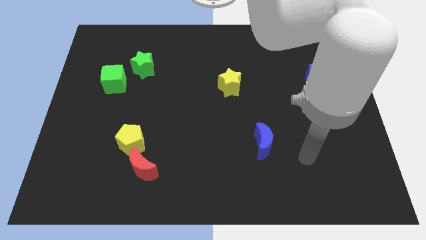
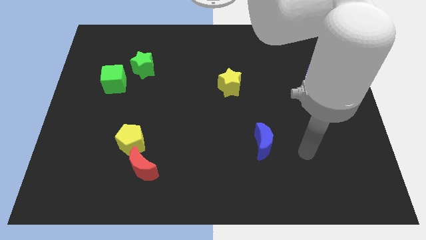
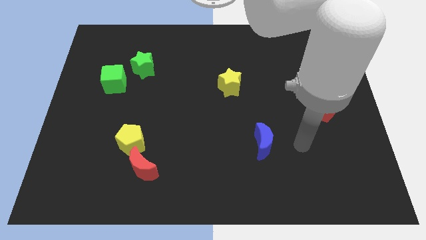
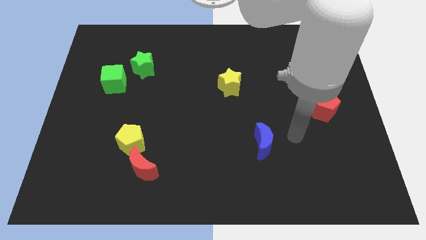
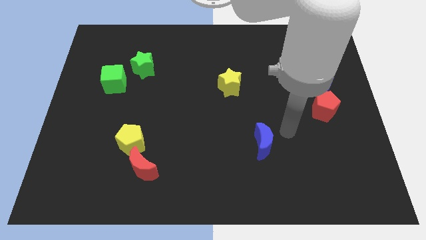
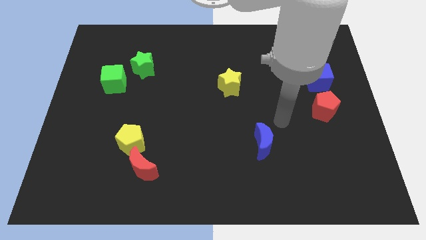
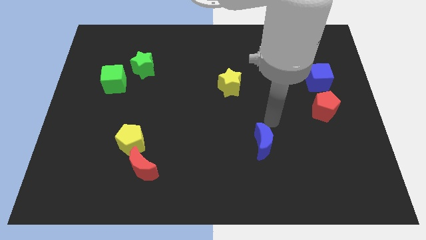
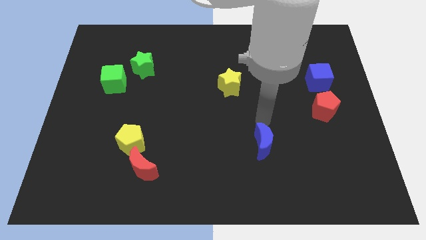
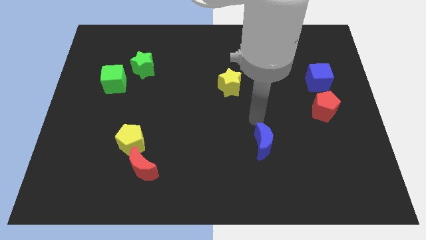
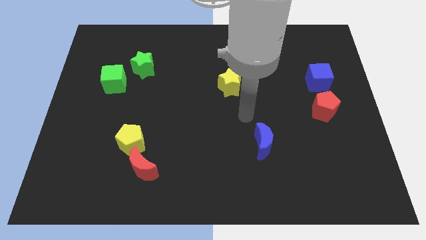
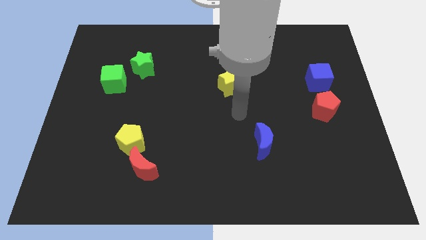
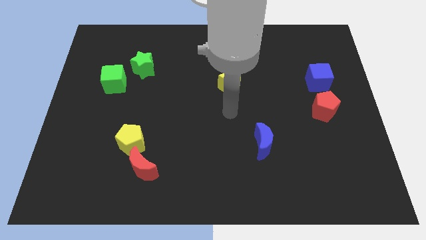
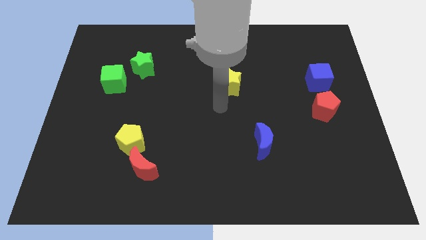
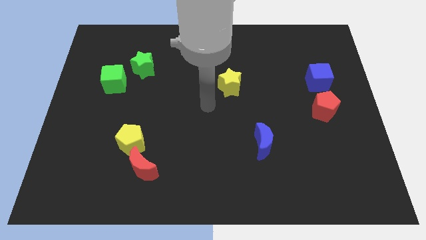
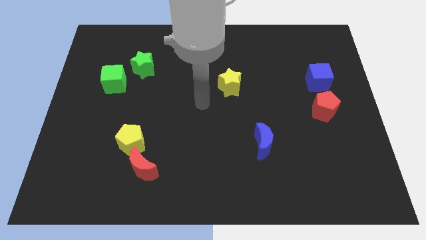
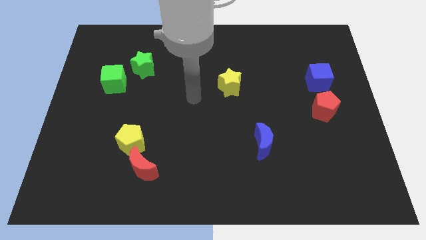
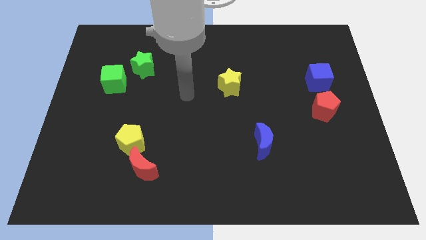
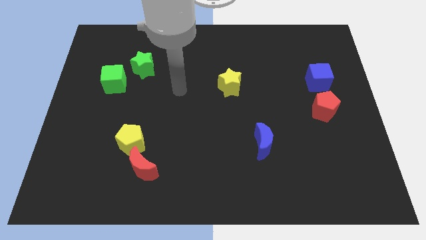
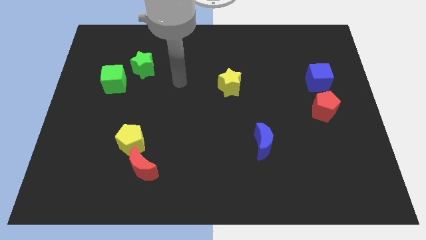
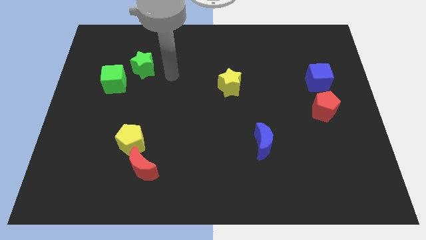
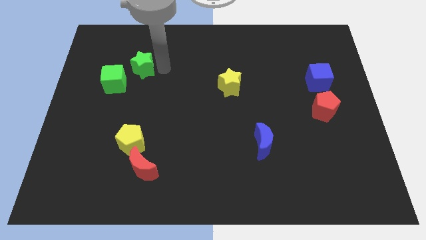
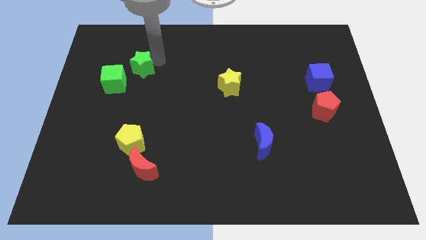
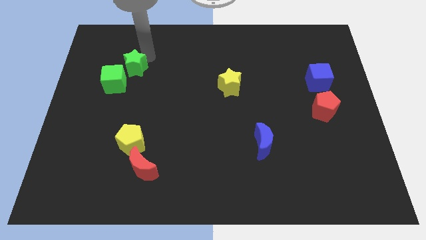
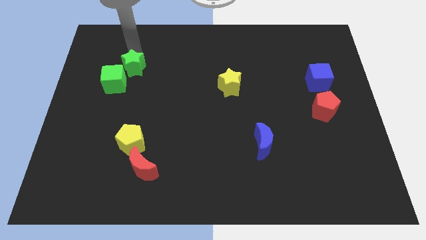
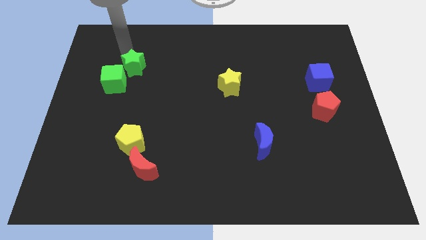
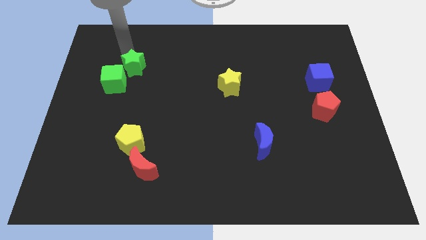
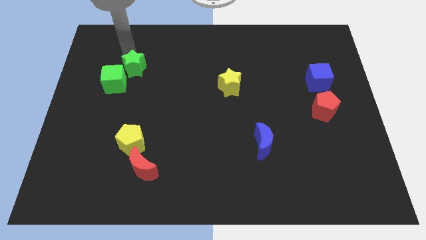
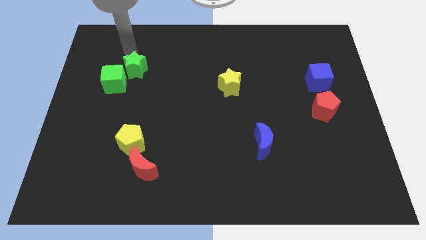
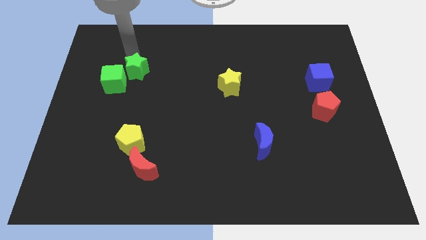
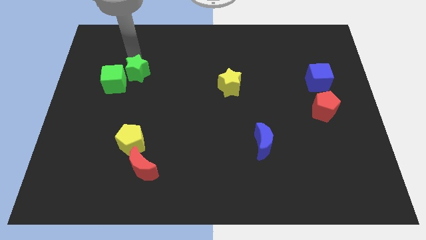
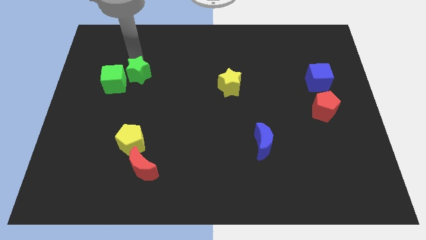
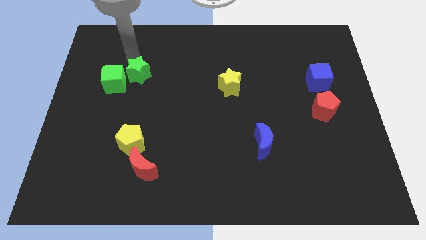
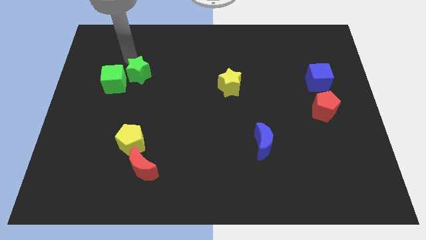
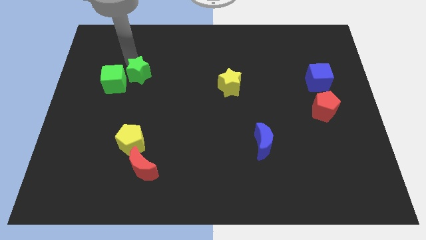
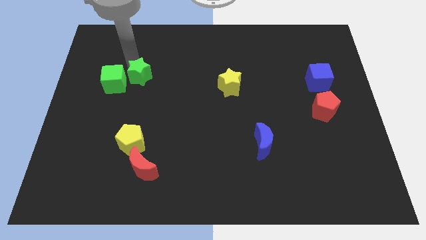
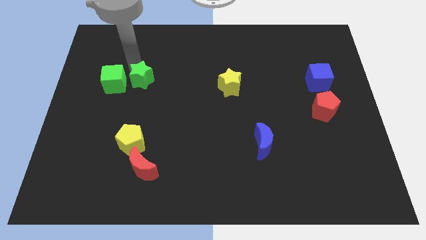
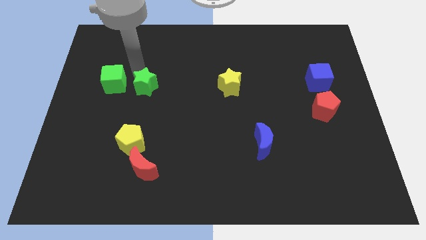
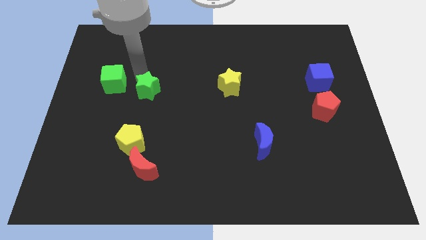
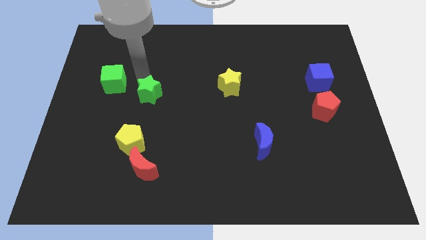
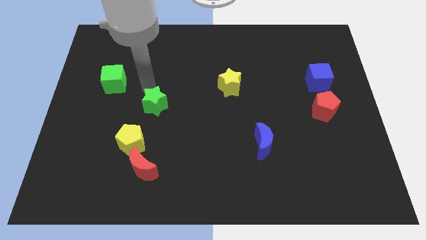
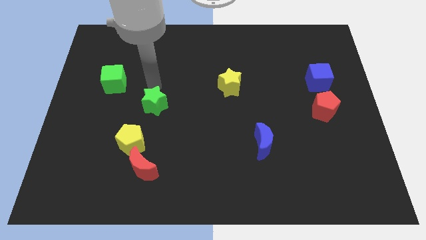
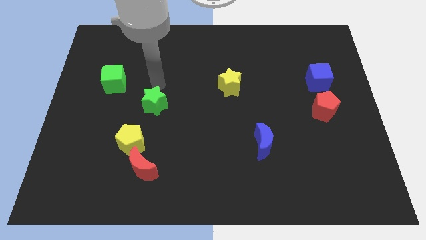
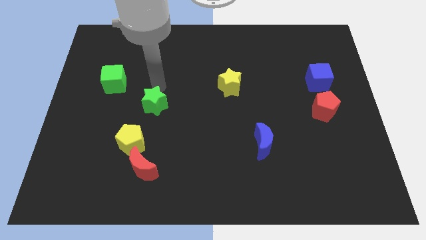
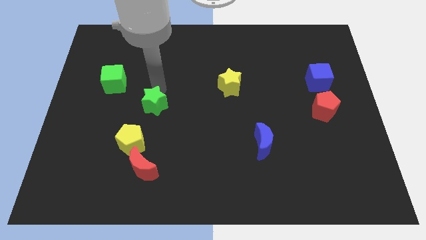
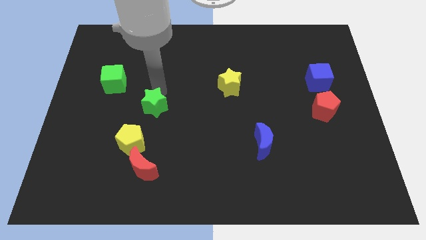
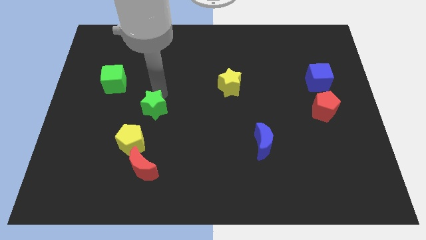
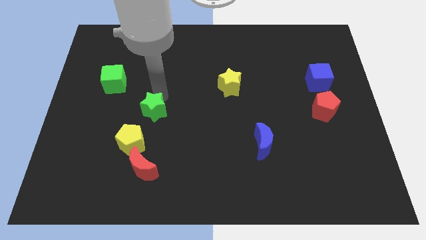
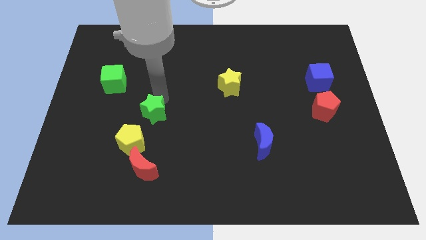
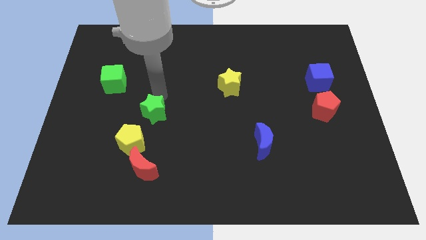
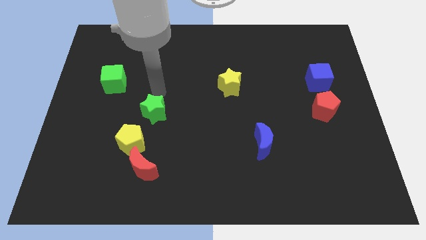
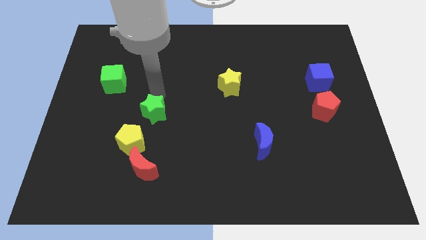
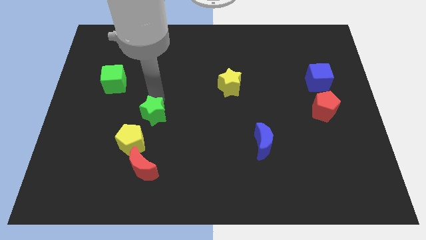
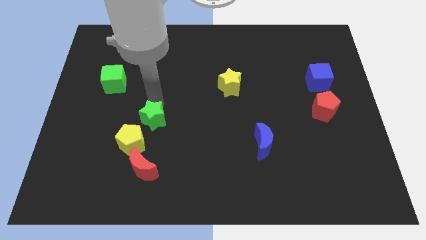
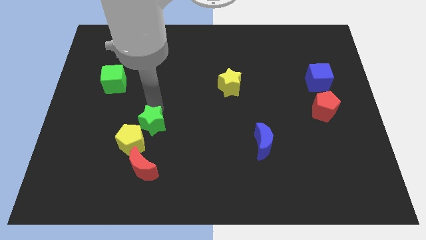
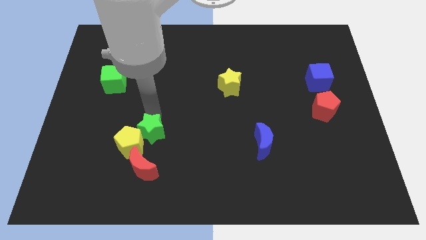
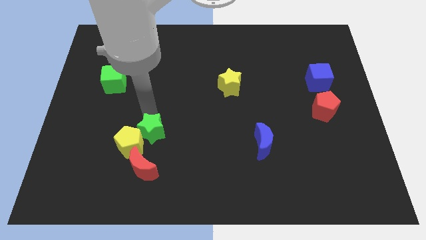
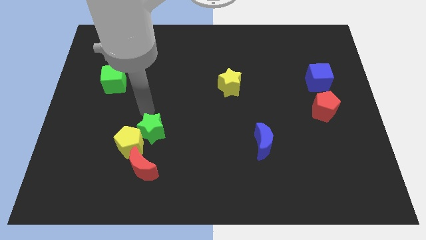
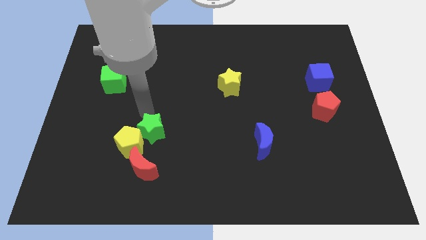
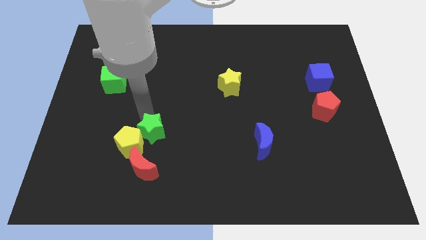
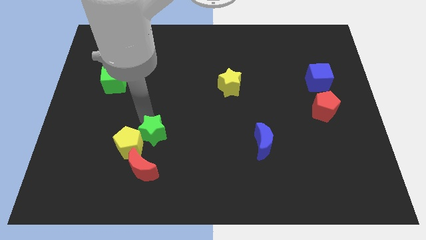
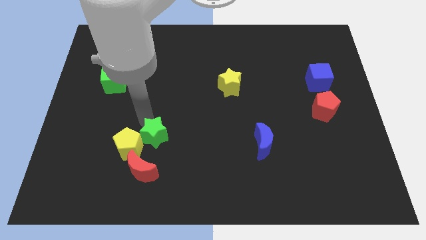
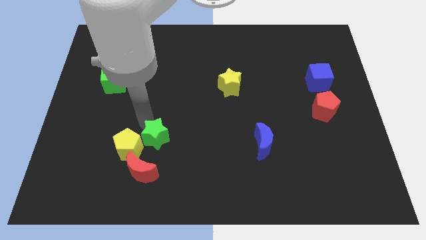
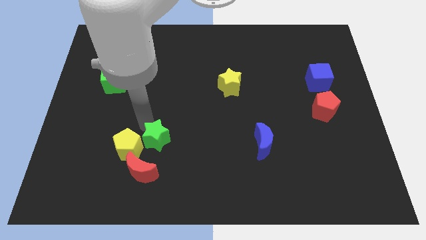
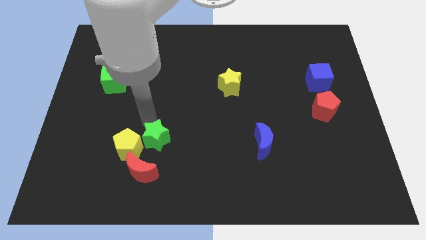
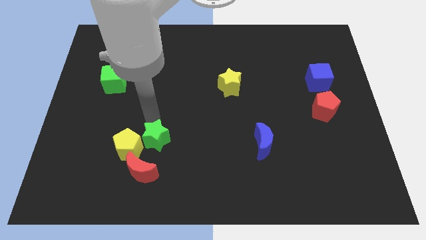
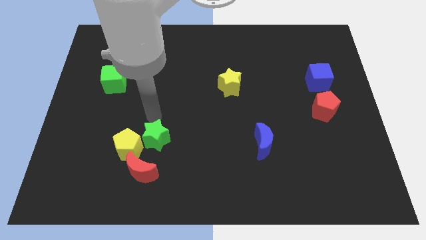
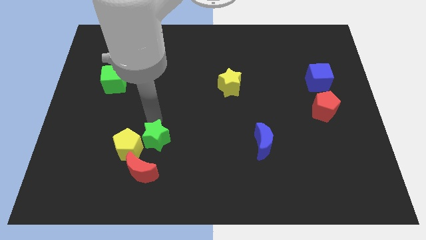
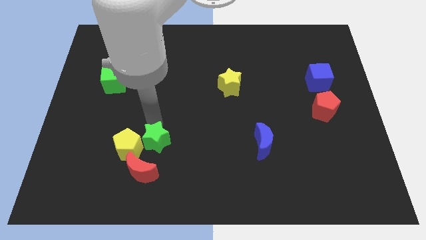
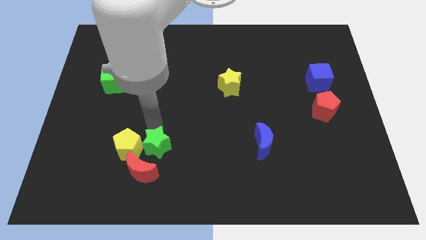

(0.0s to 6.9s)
slide the green star to the bottom right of the yellow pentagon

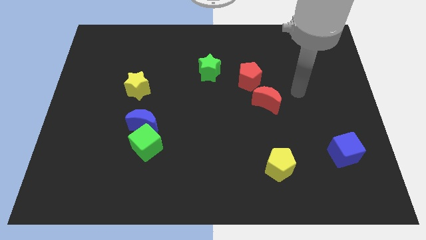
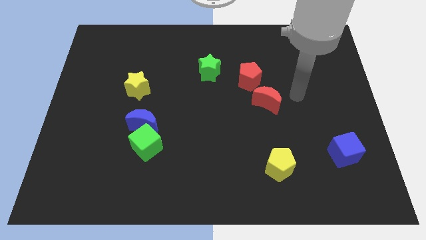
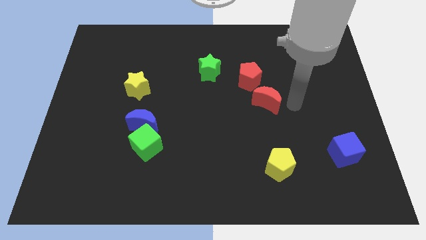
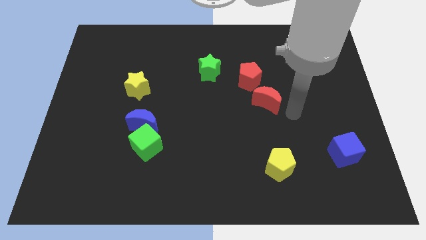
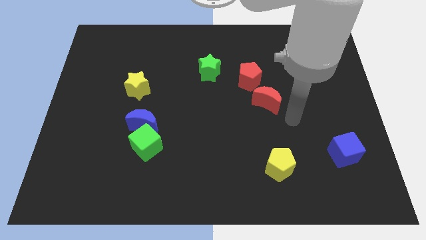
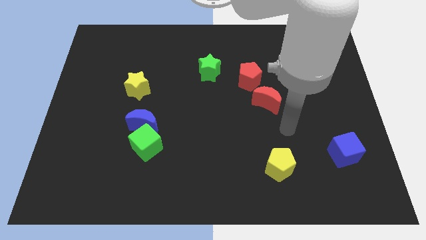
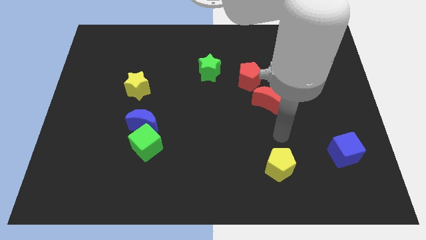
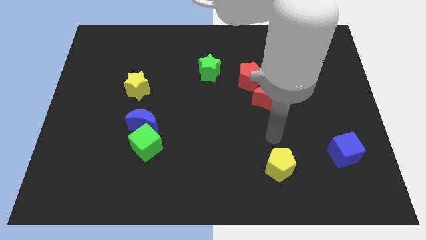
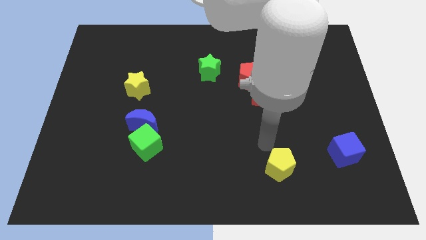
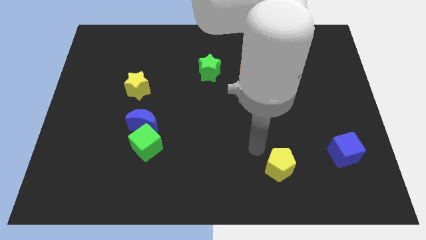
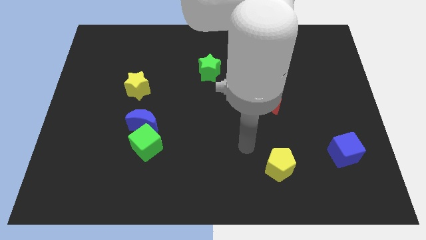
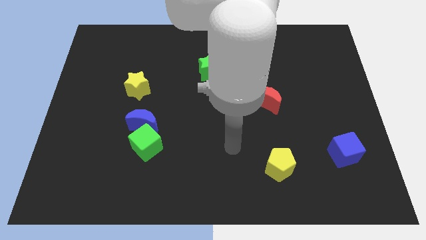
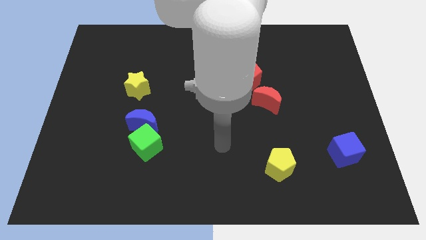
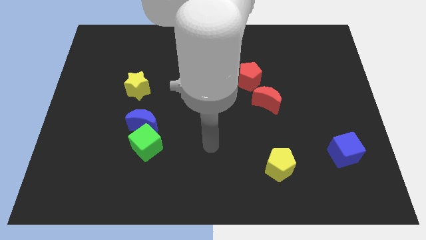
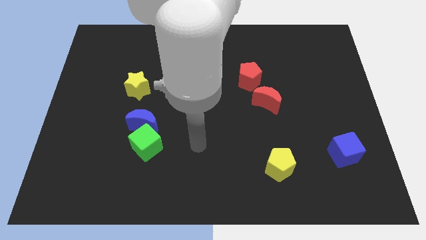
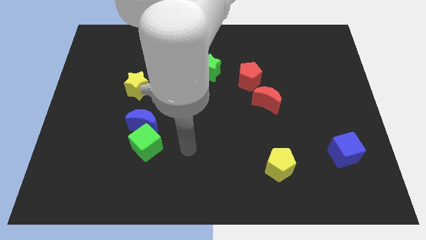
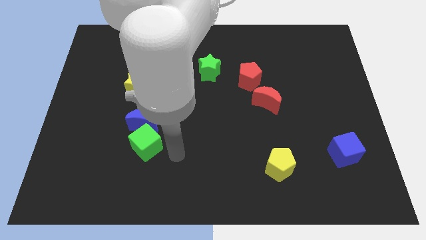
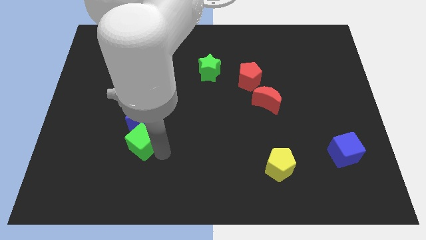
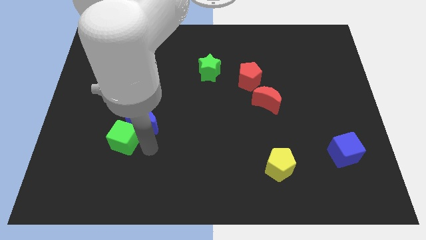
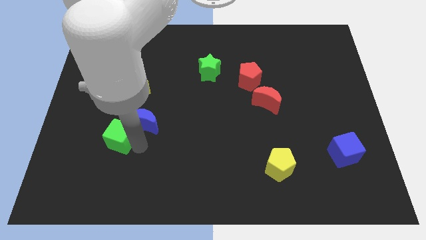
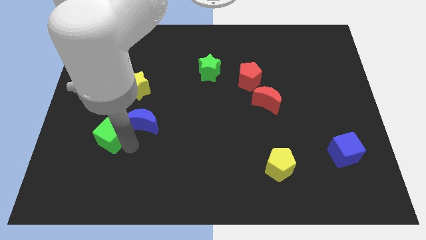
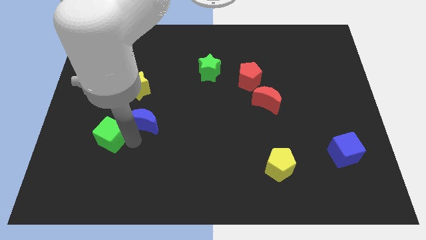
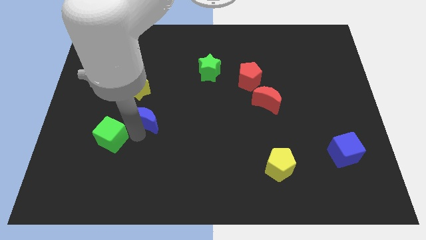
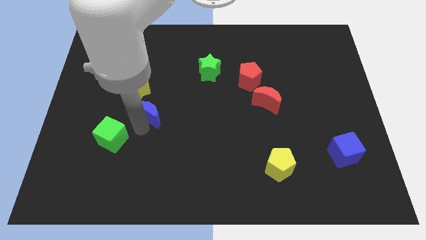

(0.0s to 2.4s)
move the blue moon to the bottom right side of the yellow star
